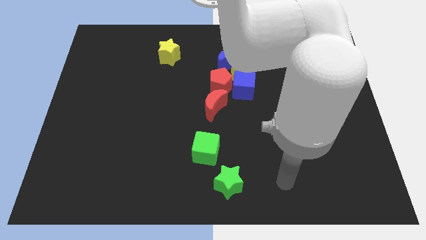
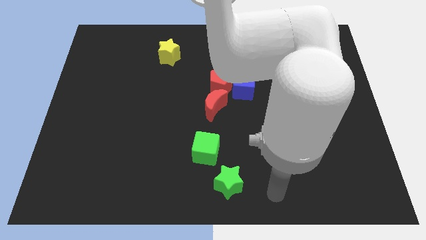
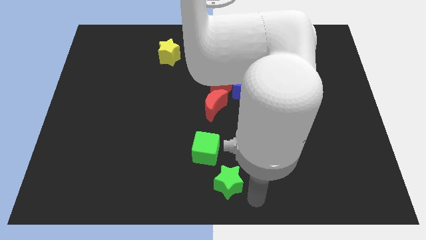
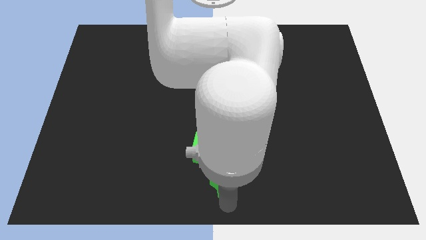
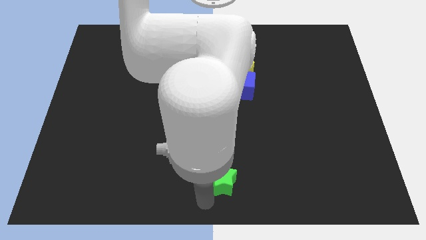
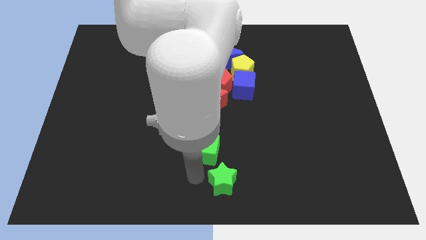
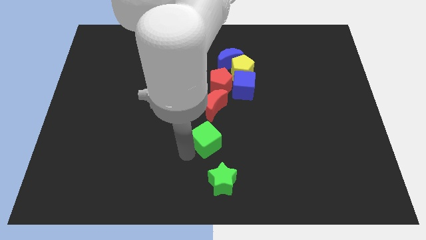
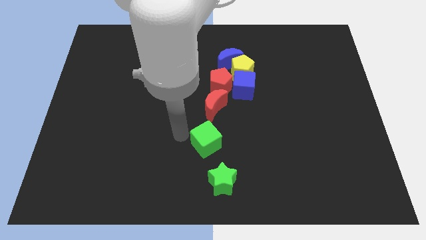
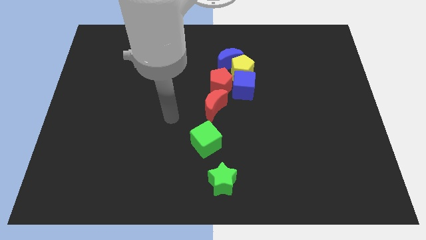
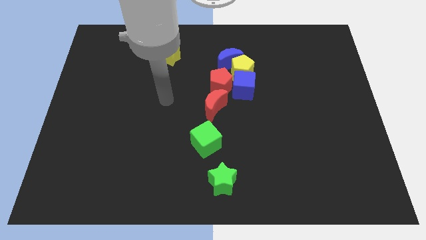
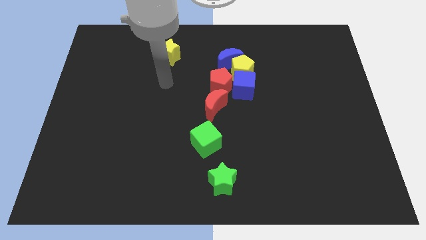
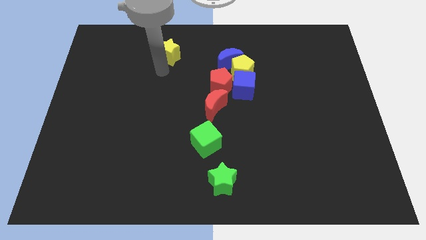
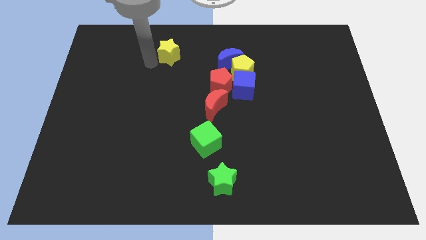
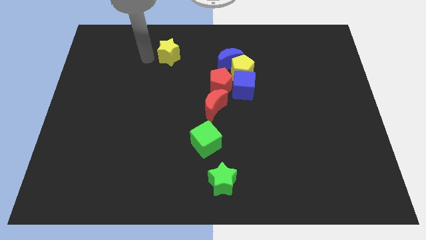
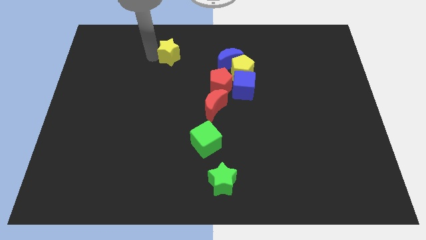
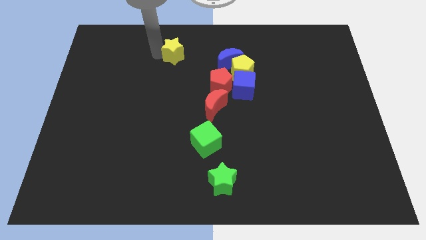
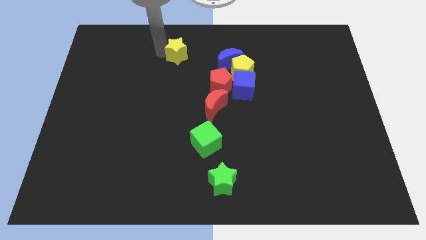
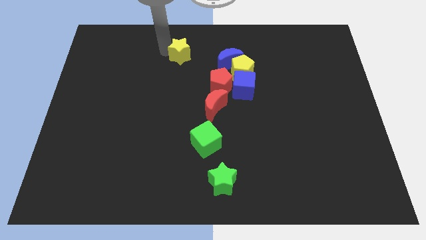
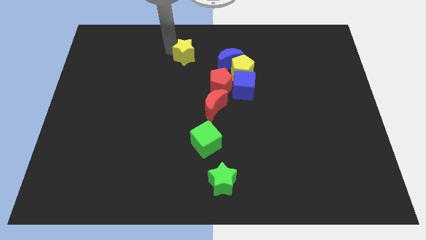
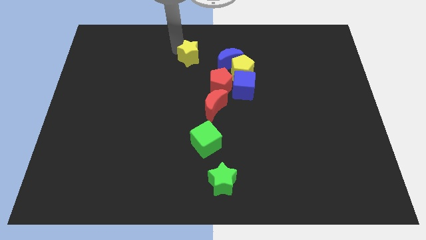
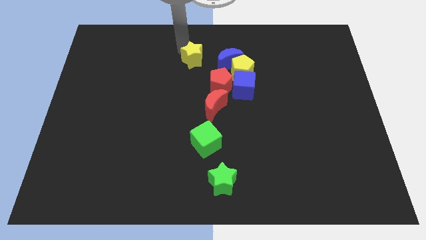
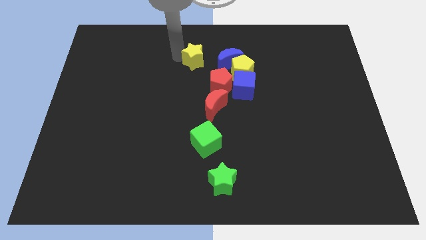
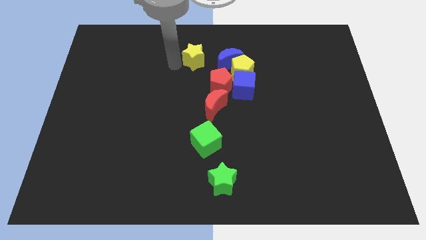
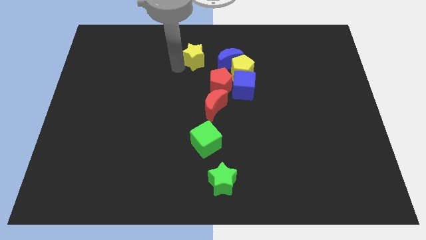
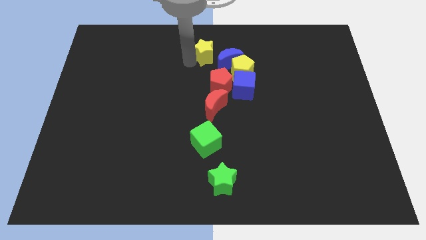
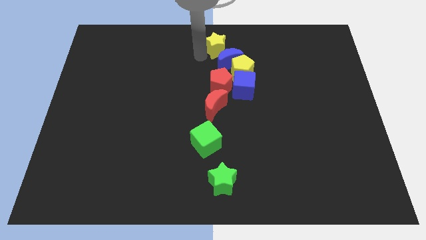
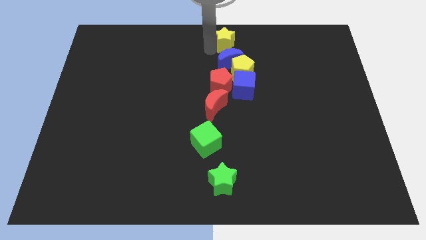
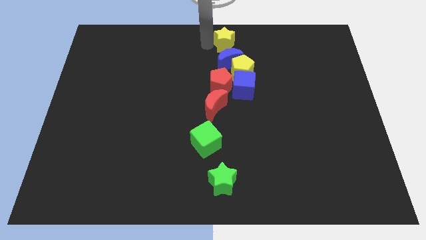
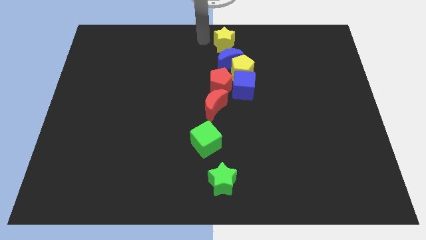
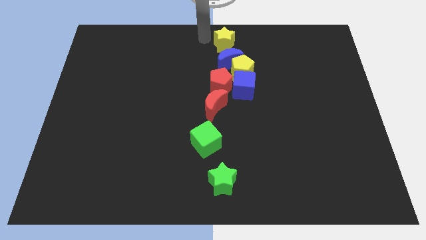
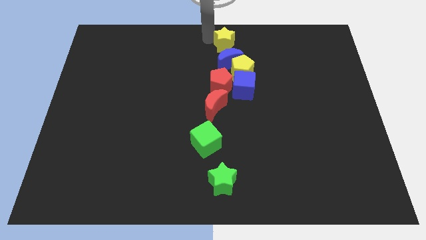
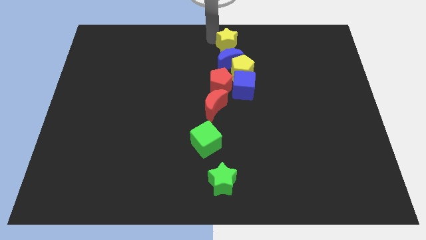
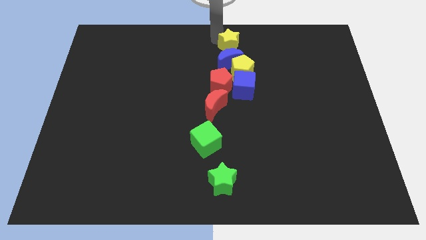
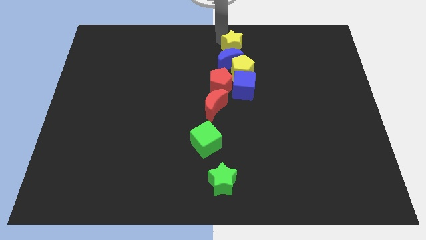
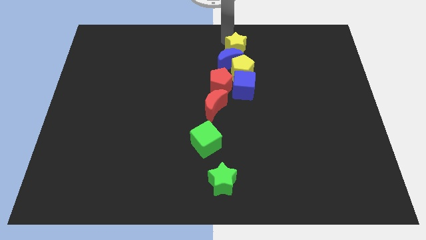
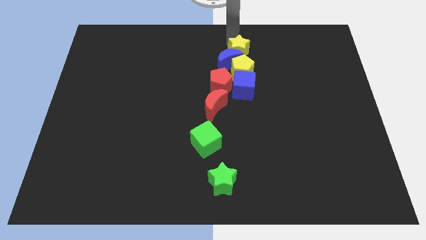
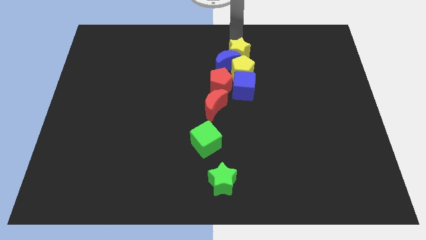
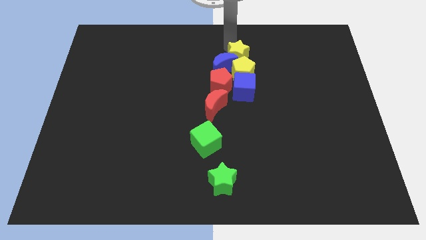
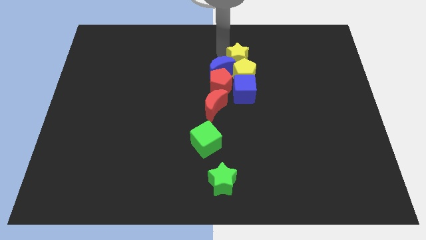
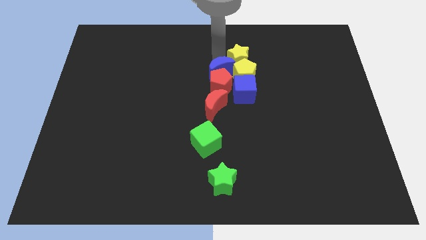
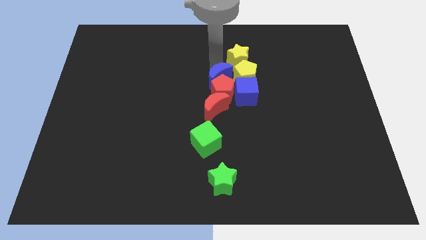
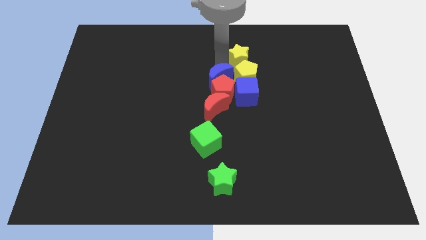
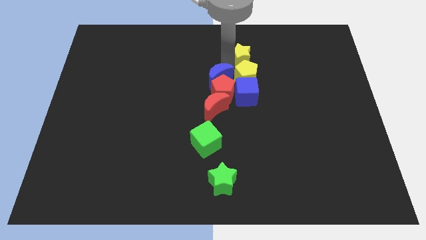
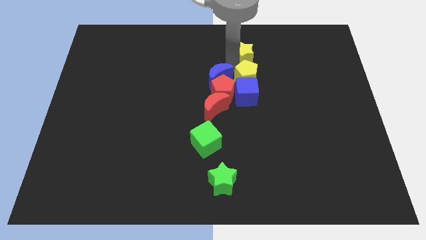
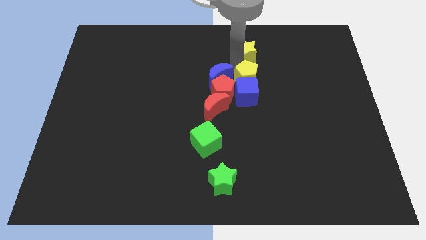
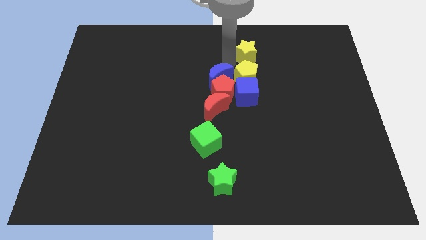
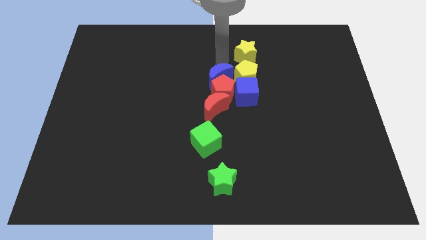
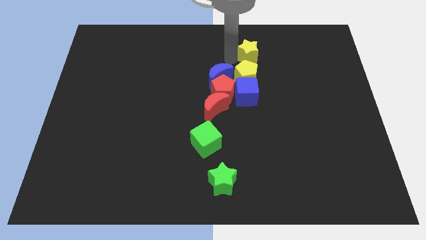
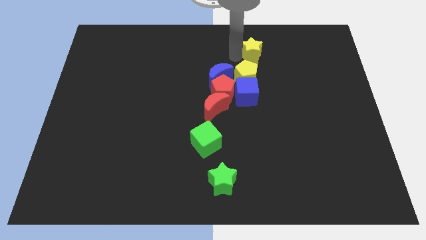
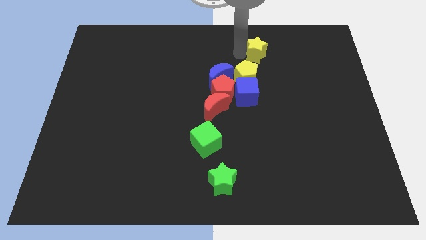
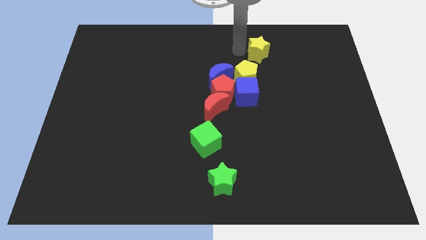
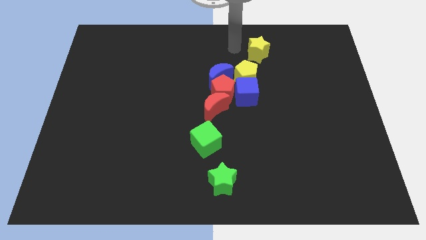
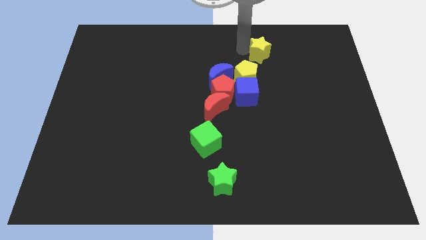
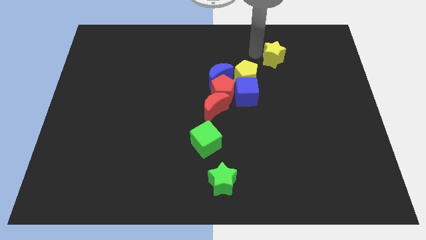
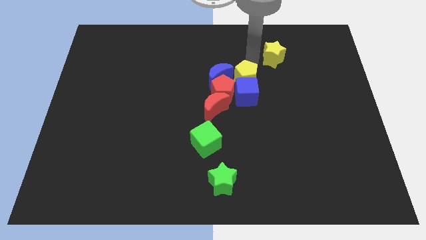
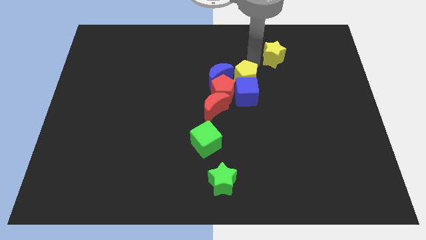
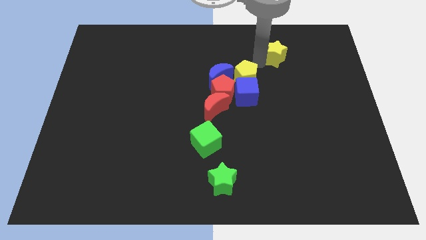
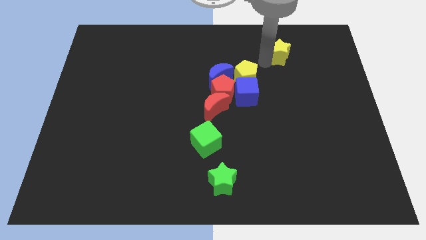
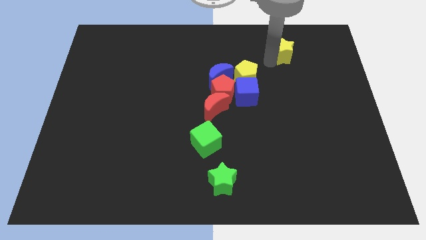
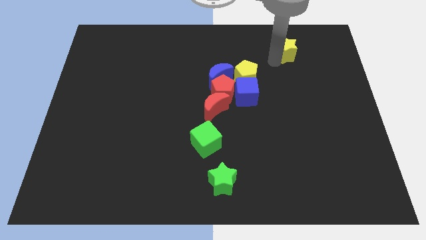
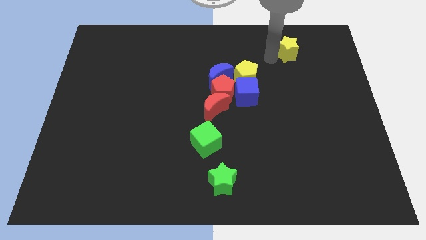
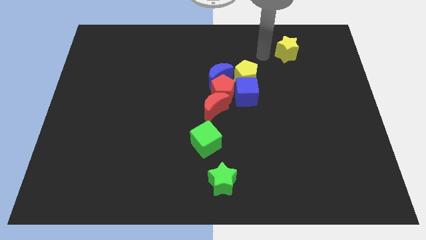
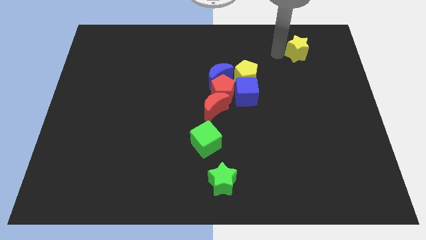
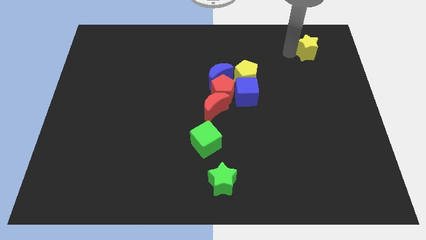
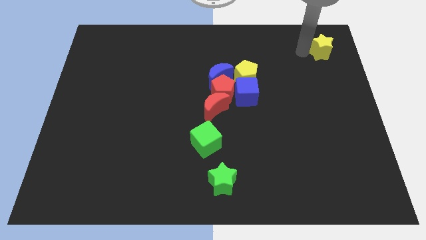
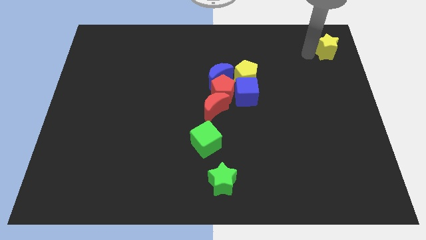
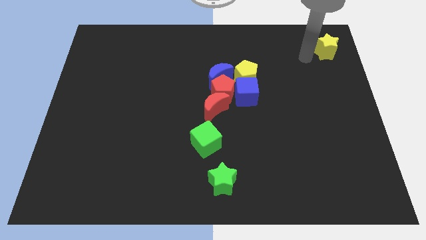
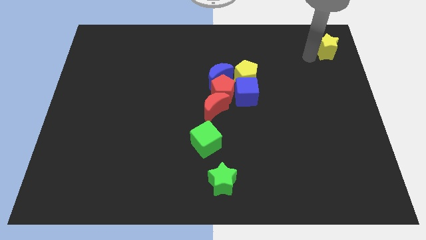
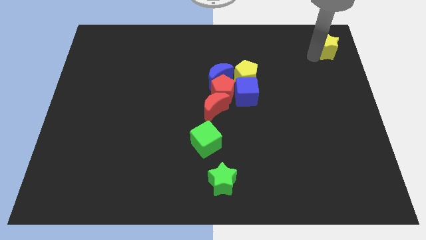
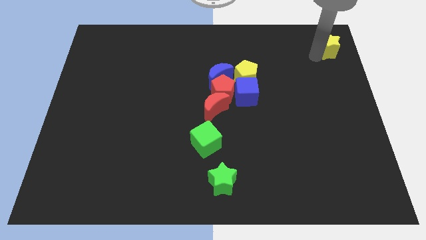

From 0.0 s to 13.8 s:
put the yellow star to the top right
